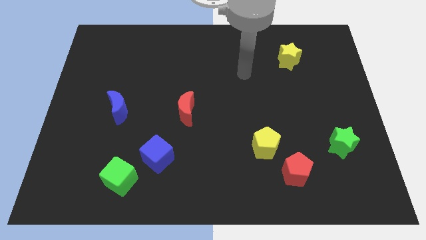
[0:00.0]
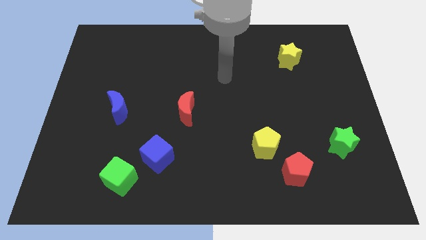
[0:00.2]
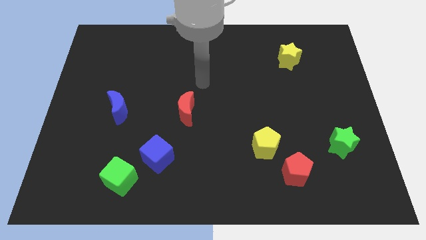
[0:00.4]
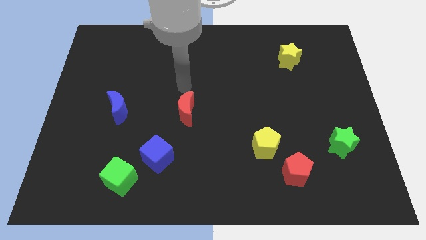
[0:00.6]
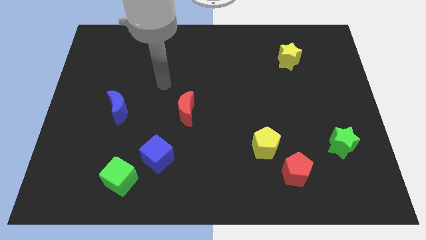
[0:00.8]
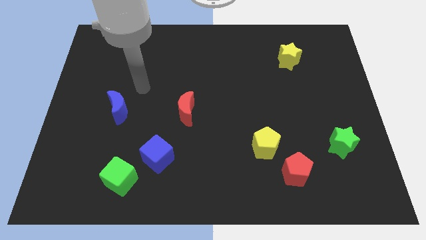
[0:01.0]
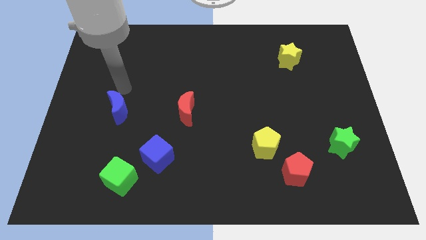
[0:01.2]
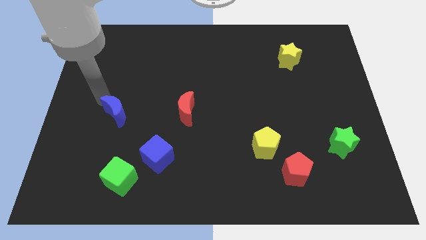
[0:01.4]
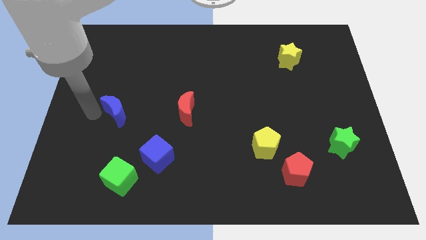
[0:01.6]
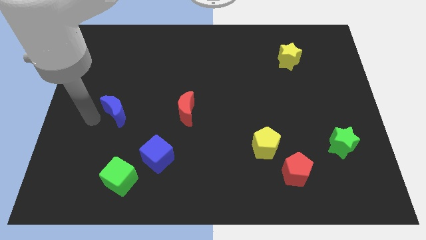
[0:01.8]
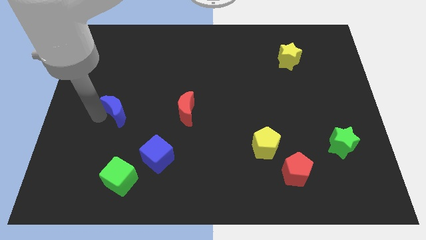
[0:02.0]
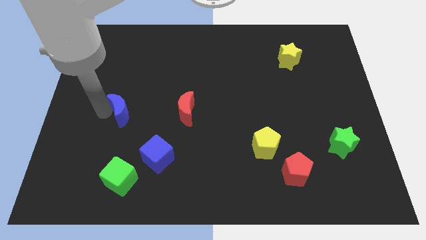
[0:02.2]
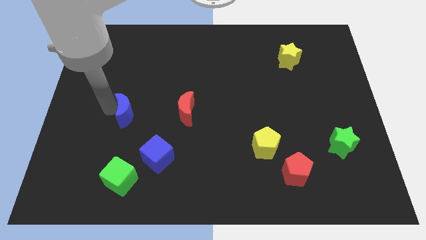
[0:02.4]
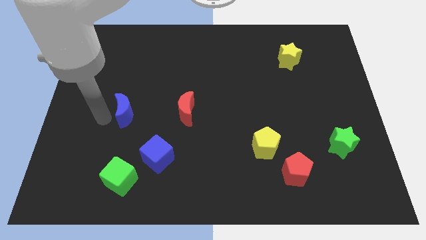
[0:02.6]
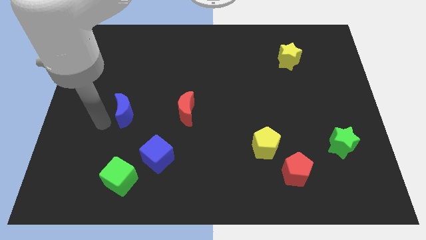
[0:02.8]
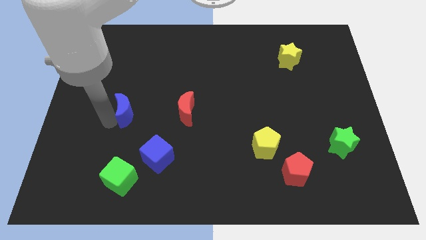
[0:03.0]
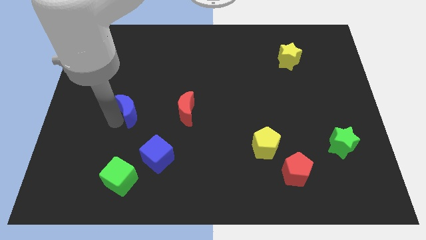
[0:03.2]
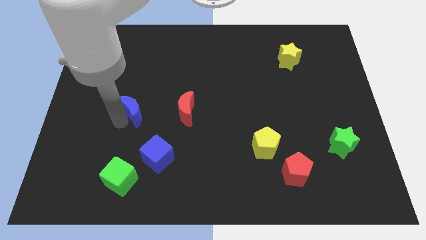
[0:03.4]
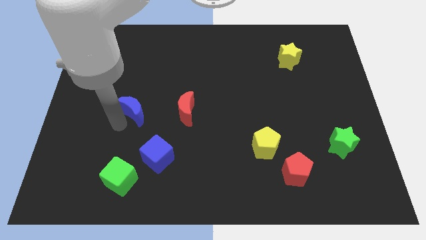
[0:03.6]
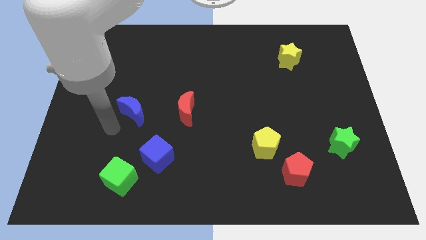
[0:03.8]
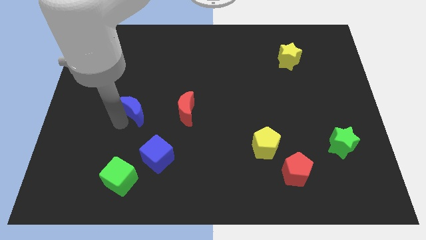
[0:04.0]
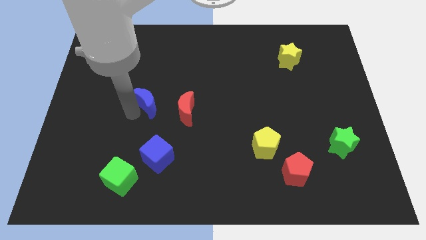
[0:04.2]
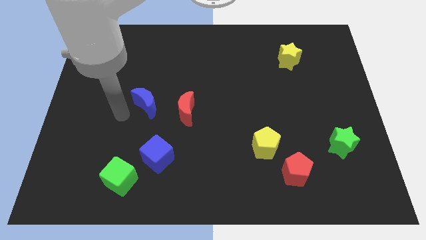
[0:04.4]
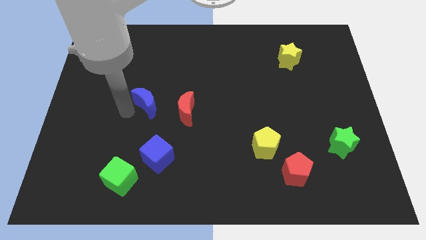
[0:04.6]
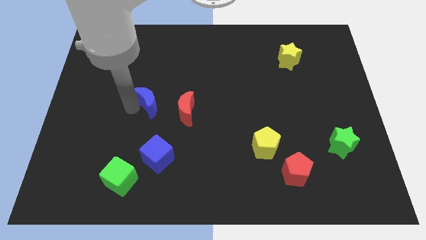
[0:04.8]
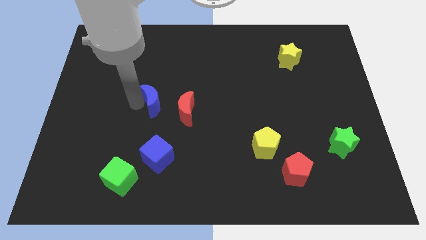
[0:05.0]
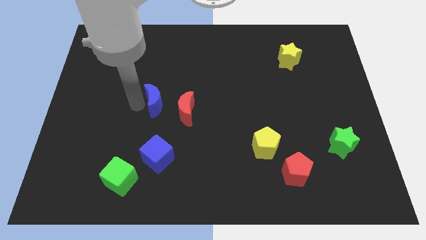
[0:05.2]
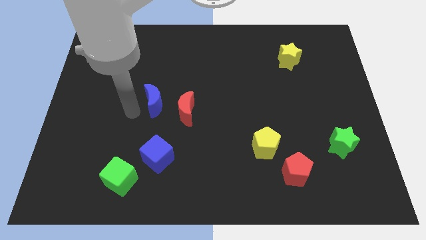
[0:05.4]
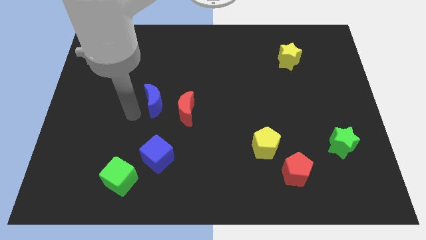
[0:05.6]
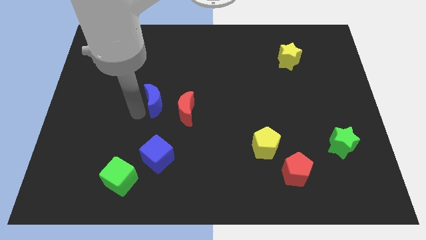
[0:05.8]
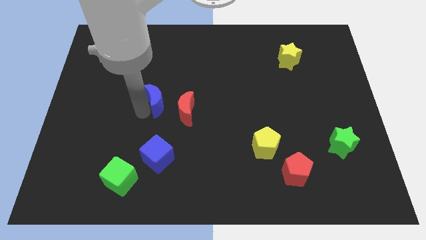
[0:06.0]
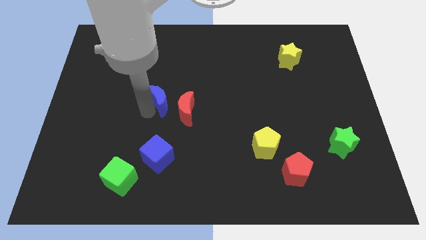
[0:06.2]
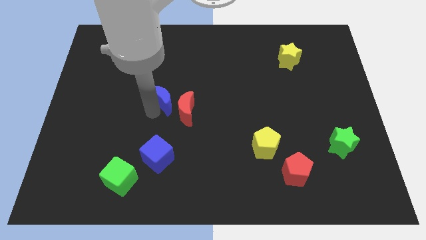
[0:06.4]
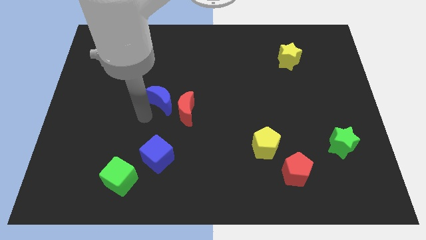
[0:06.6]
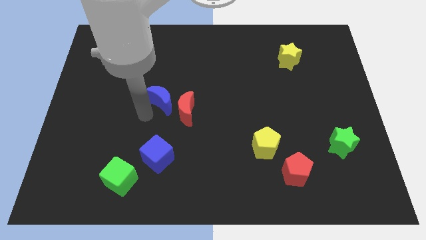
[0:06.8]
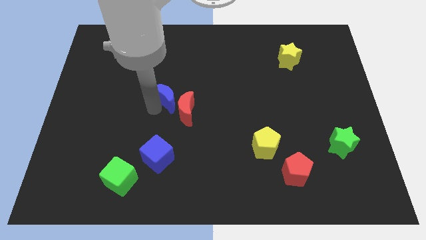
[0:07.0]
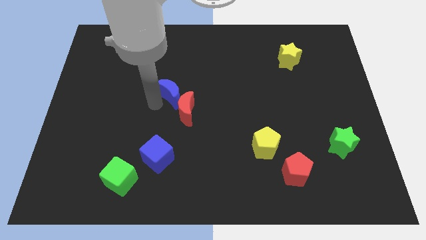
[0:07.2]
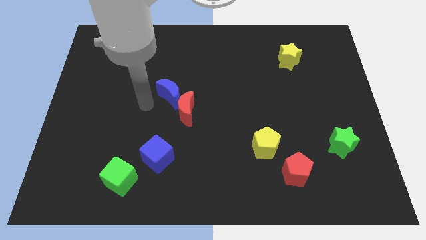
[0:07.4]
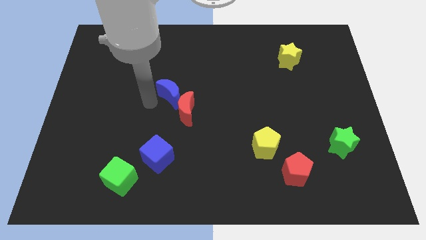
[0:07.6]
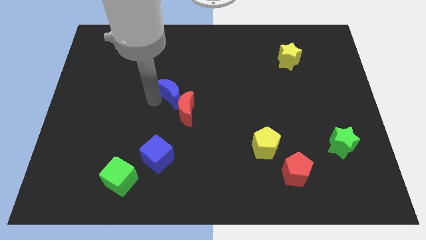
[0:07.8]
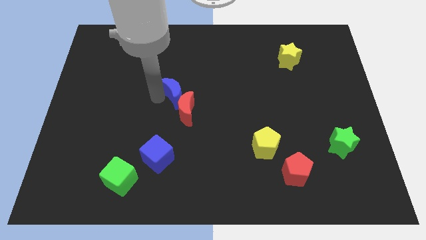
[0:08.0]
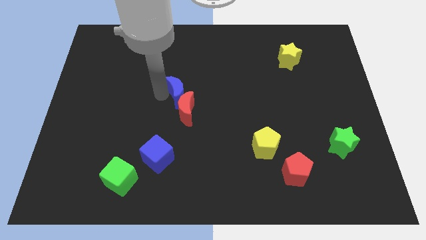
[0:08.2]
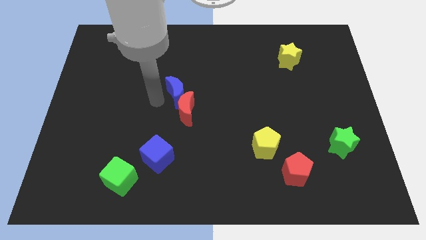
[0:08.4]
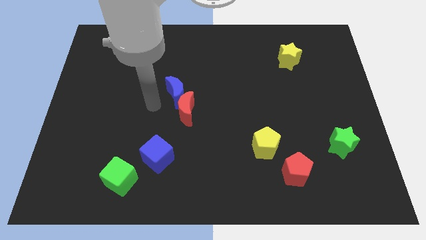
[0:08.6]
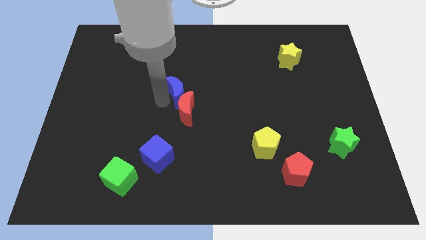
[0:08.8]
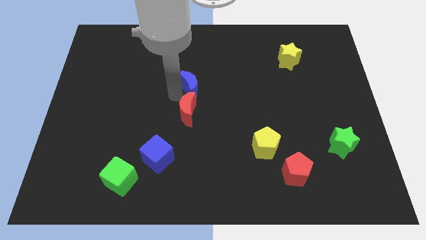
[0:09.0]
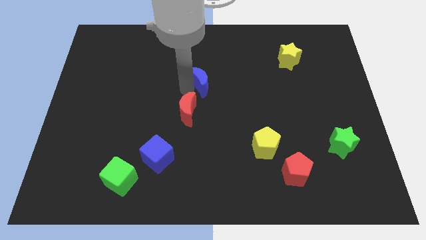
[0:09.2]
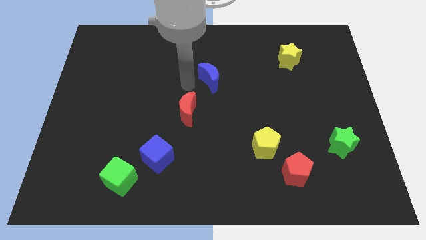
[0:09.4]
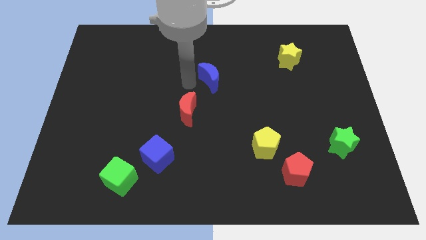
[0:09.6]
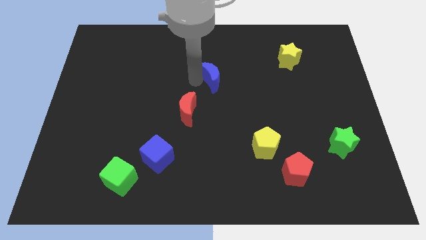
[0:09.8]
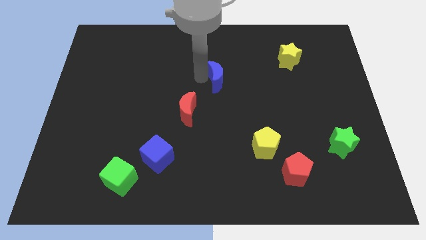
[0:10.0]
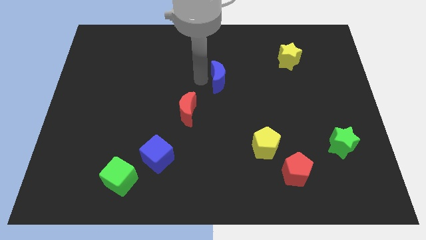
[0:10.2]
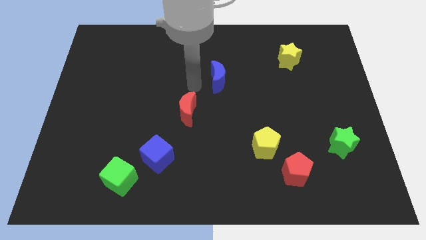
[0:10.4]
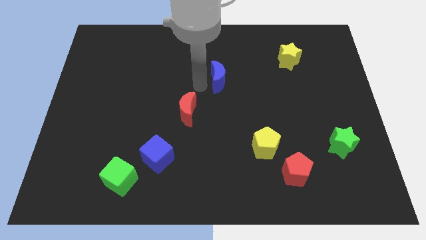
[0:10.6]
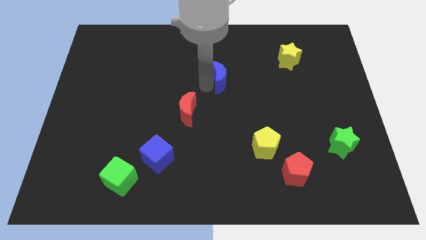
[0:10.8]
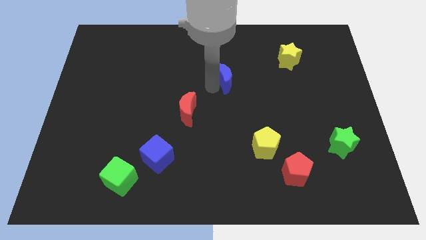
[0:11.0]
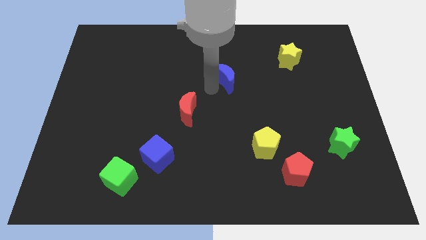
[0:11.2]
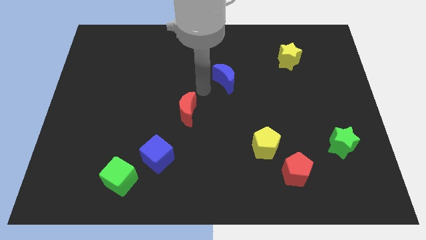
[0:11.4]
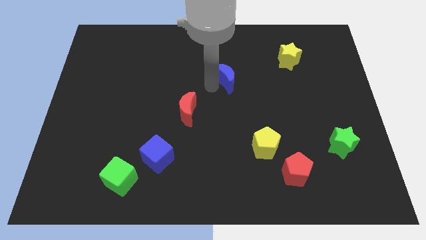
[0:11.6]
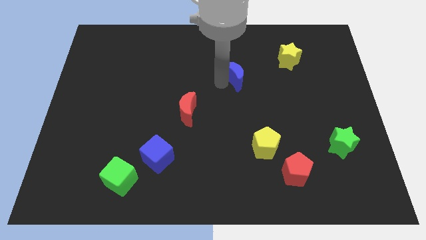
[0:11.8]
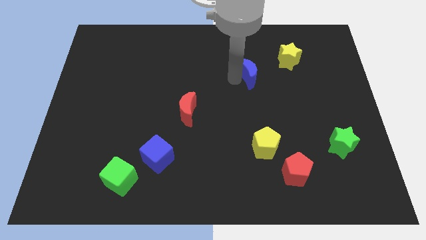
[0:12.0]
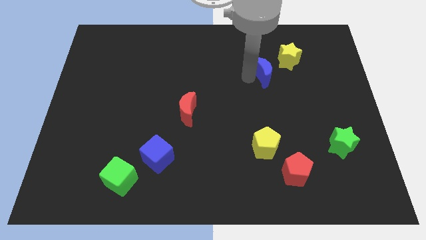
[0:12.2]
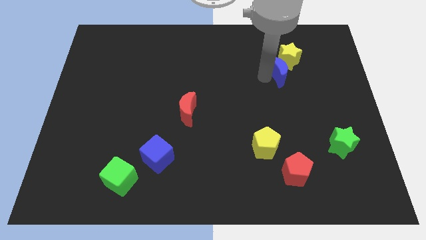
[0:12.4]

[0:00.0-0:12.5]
move the blue moon to the yellow star

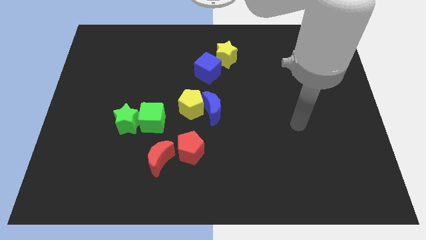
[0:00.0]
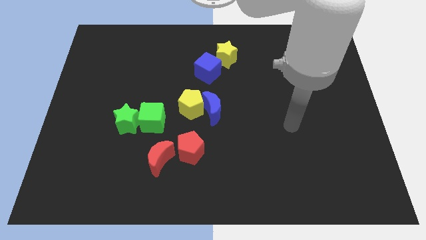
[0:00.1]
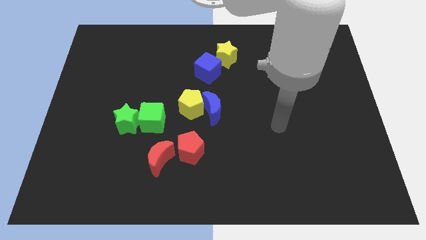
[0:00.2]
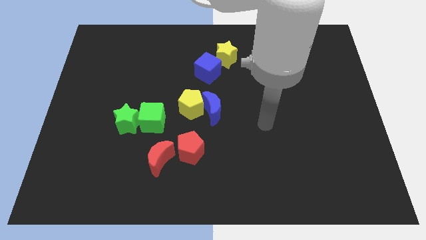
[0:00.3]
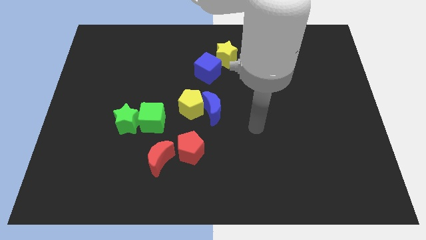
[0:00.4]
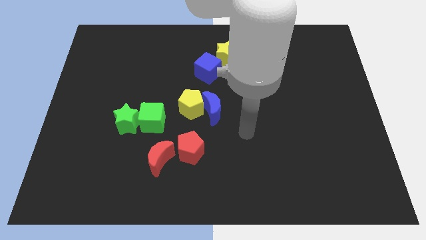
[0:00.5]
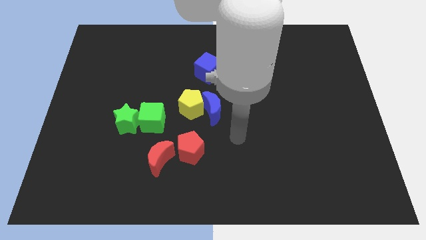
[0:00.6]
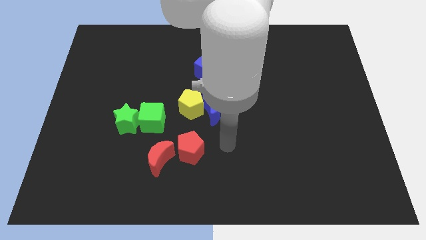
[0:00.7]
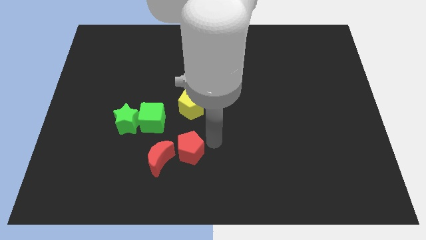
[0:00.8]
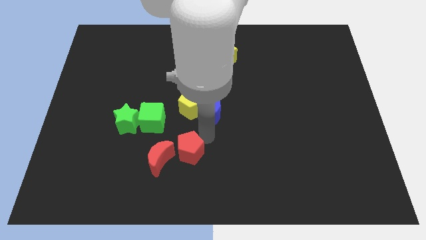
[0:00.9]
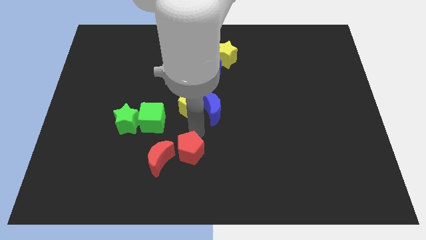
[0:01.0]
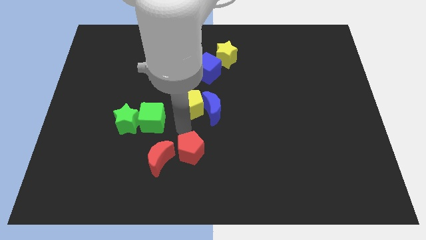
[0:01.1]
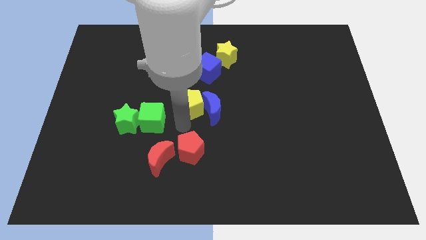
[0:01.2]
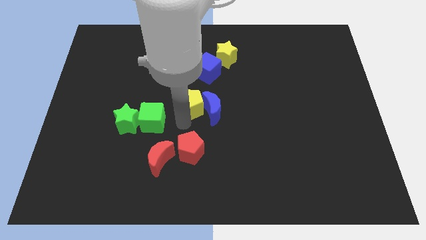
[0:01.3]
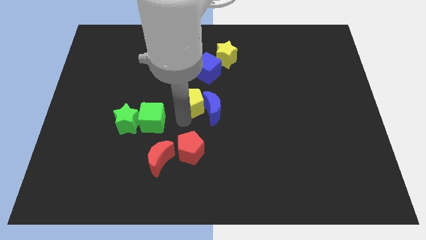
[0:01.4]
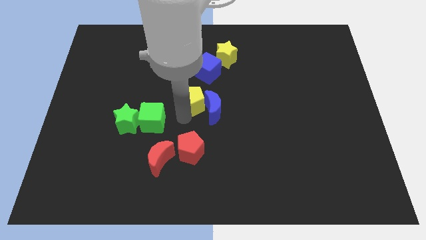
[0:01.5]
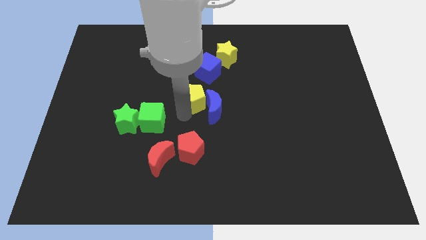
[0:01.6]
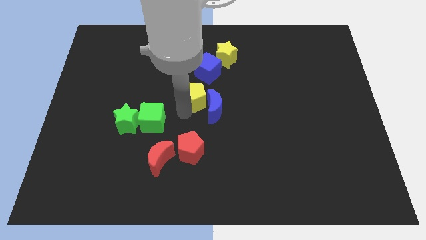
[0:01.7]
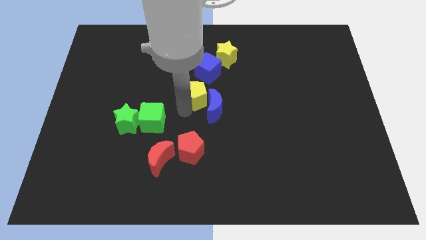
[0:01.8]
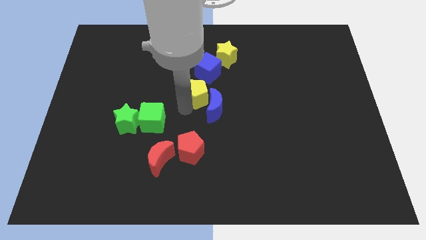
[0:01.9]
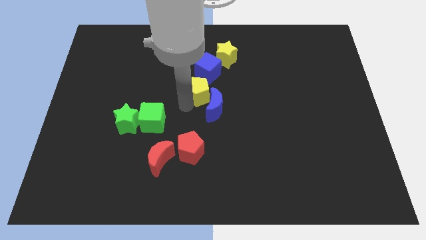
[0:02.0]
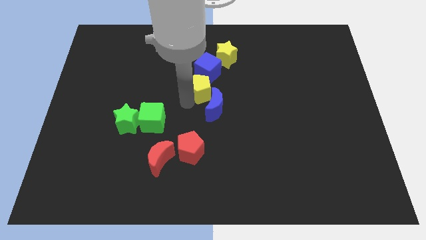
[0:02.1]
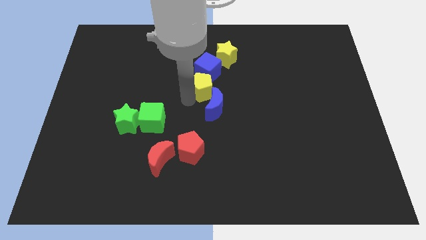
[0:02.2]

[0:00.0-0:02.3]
move the yellow pentagon next to the blue cube
